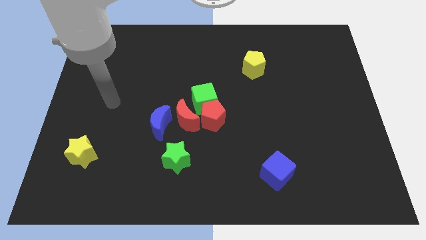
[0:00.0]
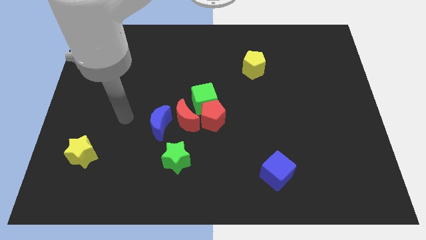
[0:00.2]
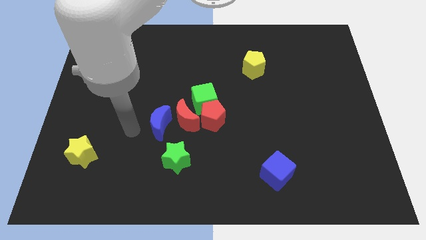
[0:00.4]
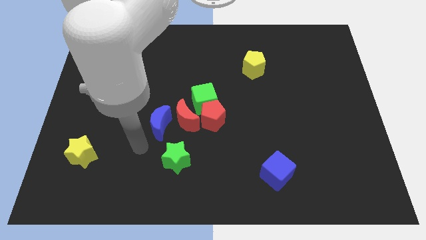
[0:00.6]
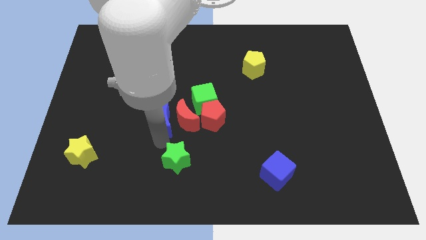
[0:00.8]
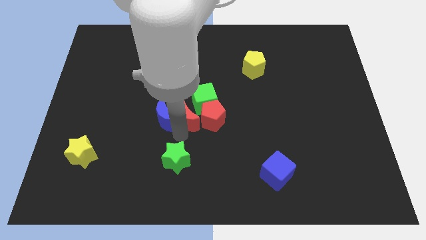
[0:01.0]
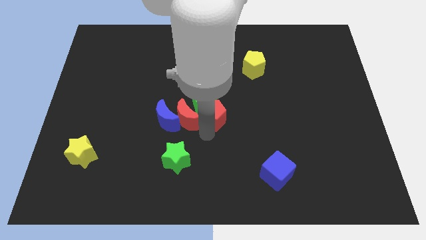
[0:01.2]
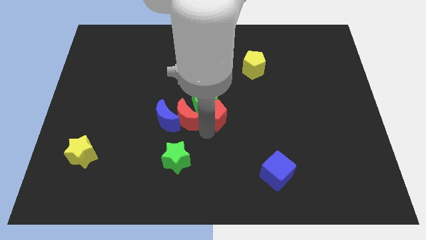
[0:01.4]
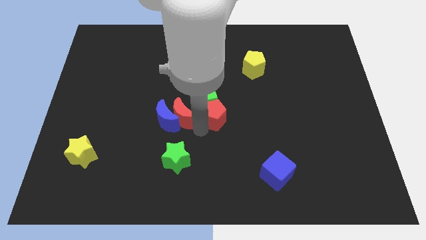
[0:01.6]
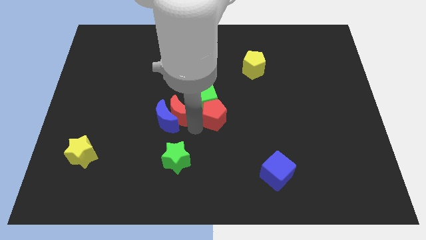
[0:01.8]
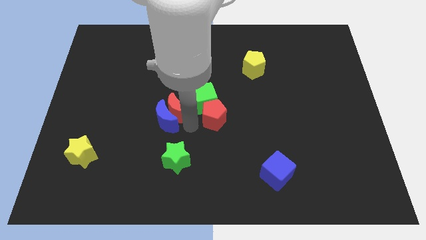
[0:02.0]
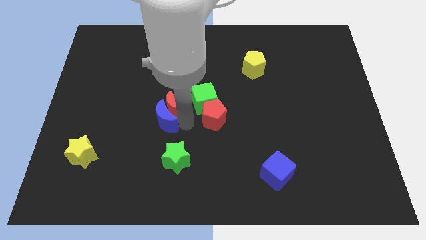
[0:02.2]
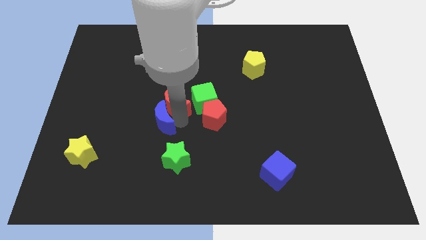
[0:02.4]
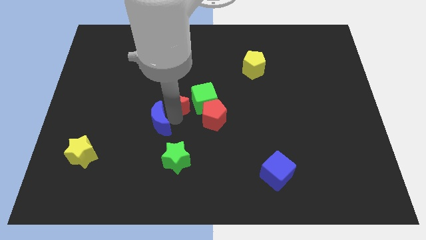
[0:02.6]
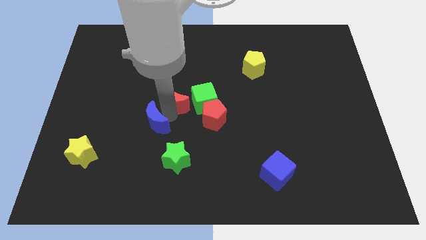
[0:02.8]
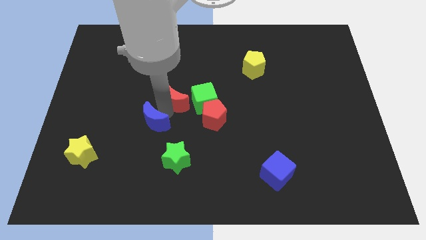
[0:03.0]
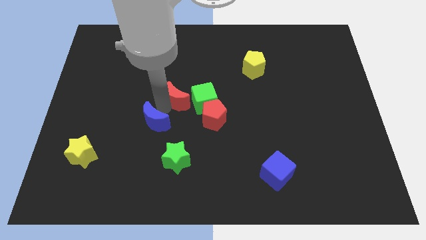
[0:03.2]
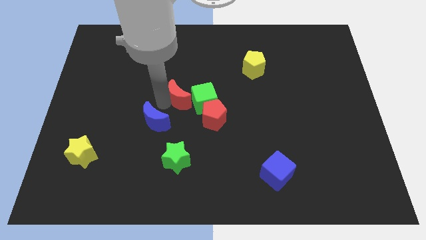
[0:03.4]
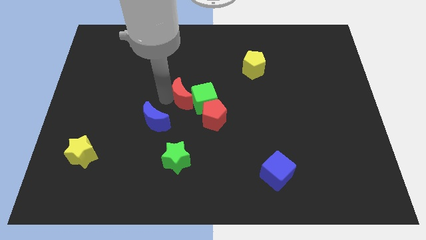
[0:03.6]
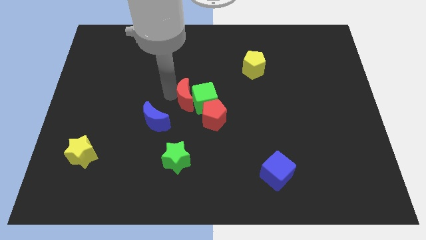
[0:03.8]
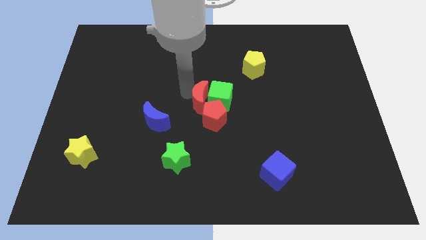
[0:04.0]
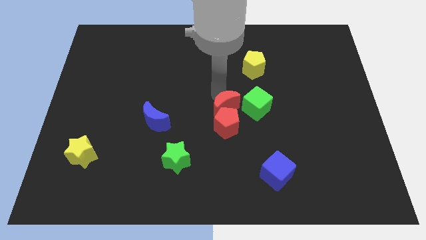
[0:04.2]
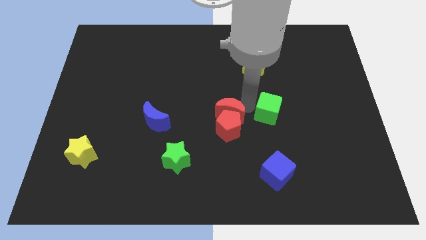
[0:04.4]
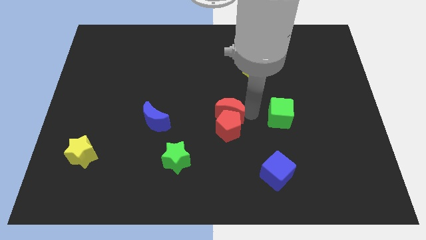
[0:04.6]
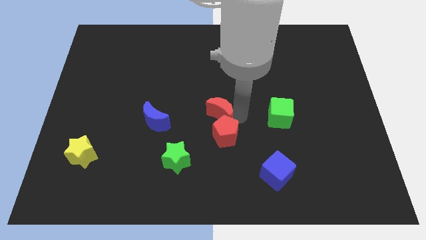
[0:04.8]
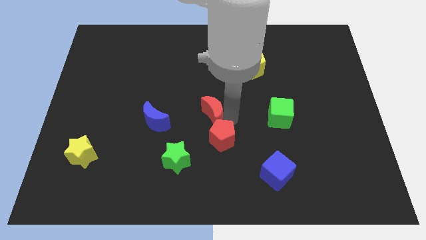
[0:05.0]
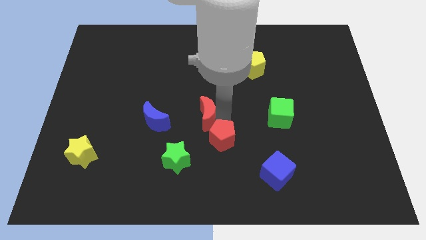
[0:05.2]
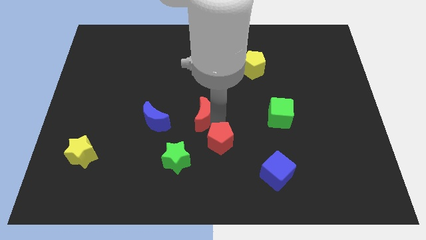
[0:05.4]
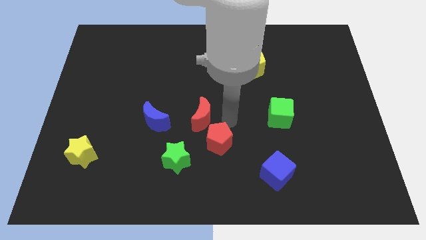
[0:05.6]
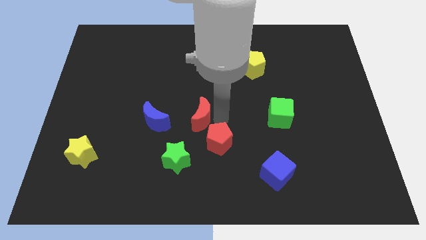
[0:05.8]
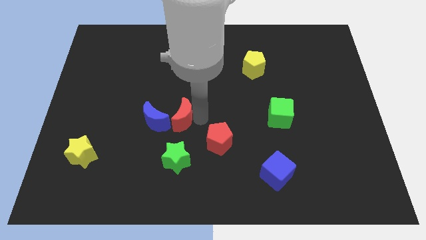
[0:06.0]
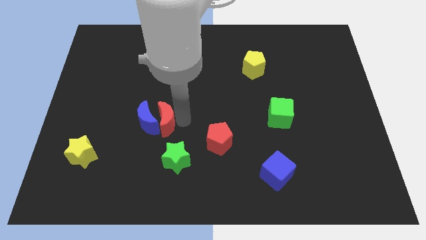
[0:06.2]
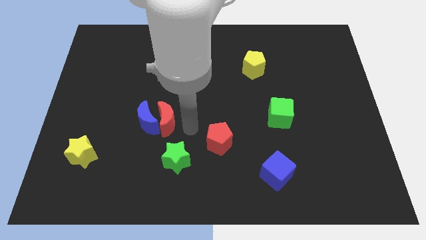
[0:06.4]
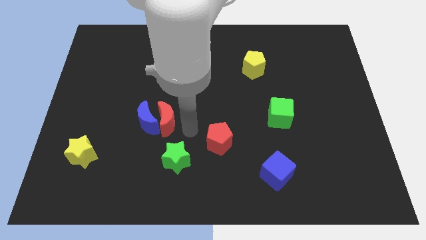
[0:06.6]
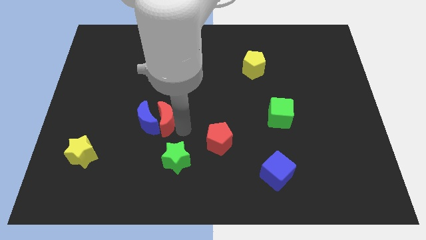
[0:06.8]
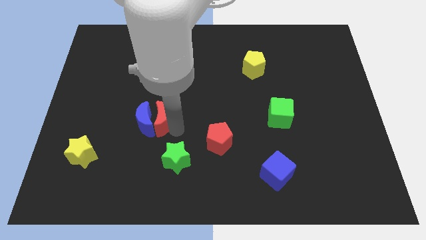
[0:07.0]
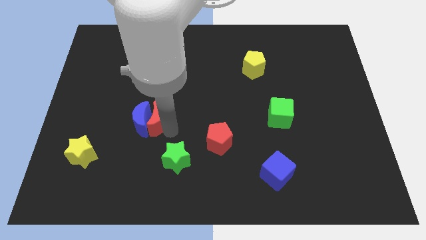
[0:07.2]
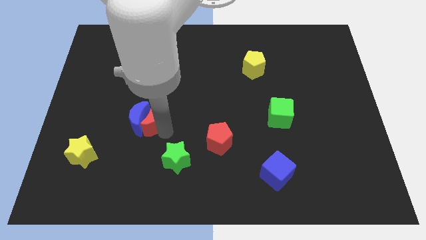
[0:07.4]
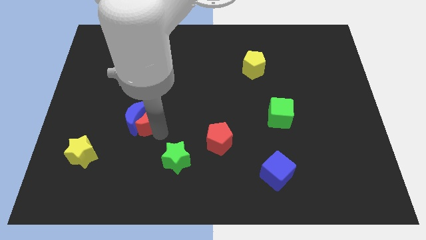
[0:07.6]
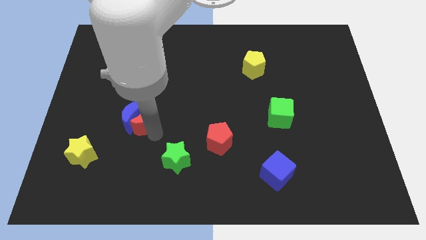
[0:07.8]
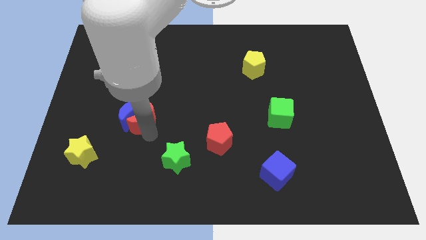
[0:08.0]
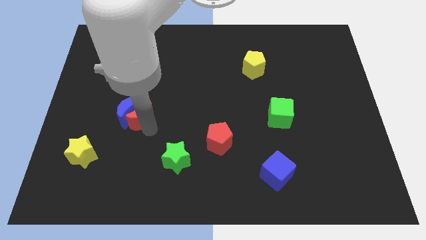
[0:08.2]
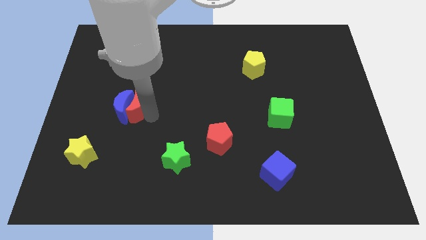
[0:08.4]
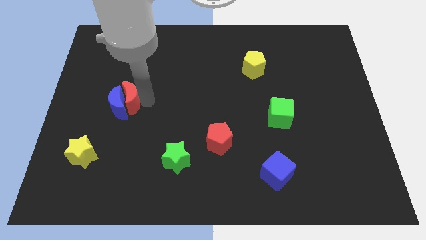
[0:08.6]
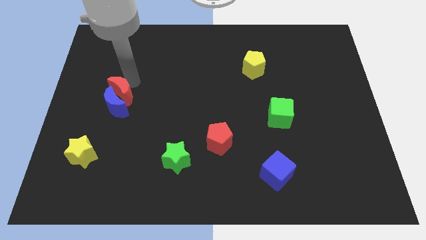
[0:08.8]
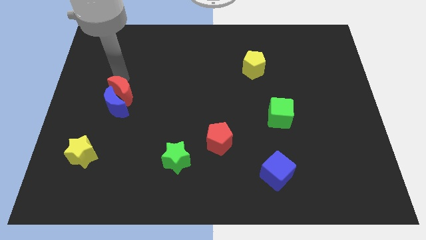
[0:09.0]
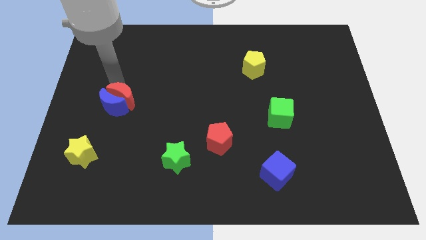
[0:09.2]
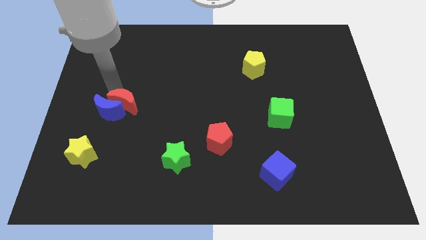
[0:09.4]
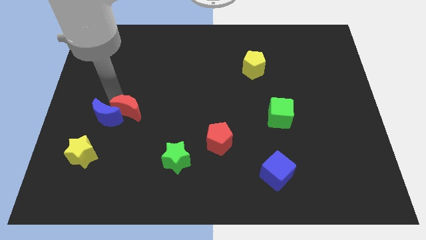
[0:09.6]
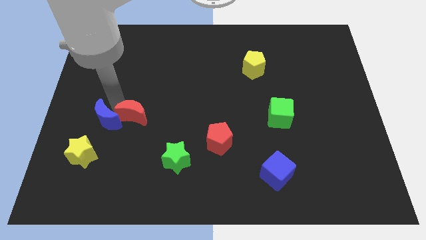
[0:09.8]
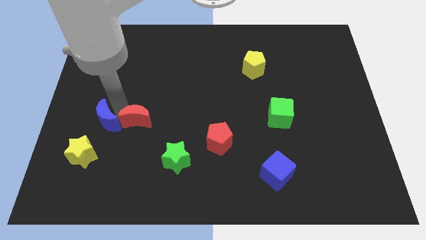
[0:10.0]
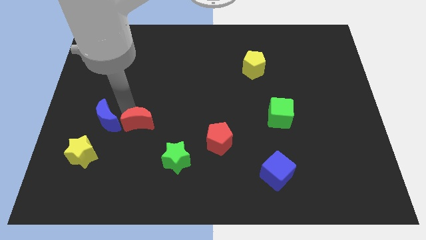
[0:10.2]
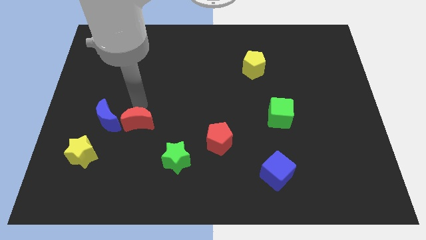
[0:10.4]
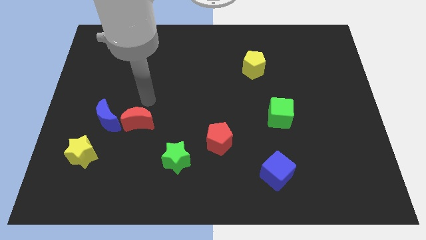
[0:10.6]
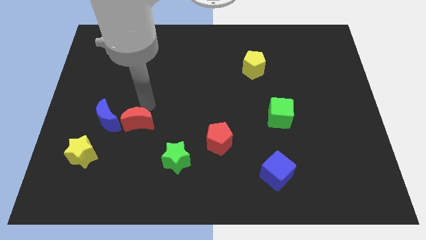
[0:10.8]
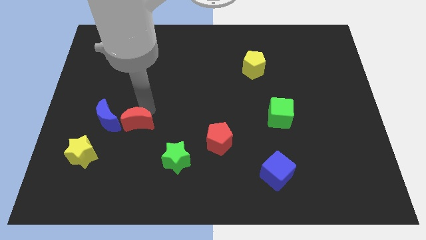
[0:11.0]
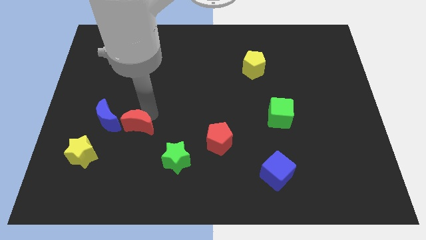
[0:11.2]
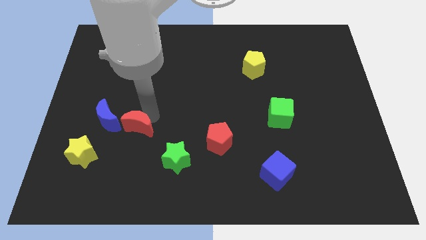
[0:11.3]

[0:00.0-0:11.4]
move the red moon slightly downwards and to the left

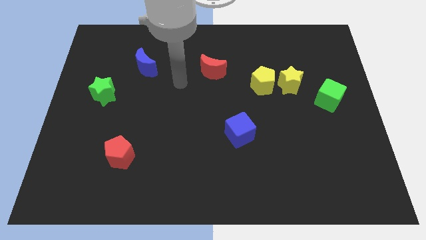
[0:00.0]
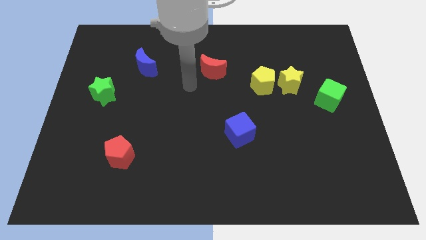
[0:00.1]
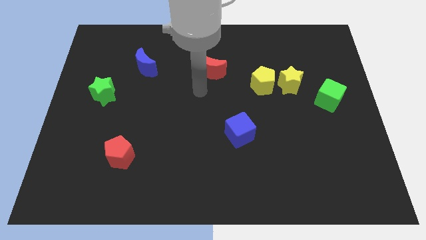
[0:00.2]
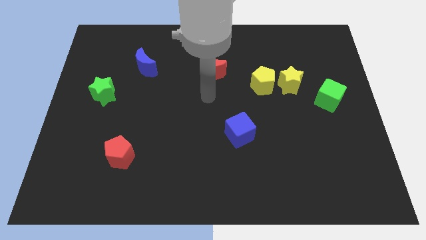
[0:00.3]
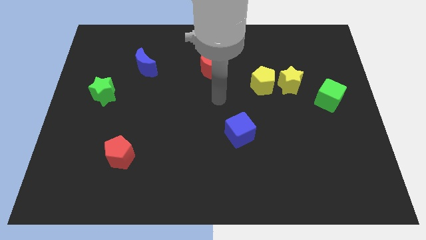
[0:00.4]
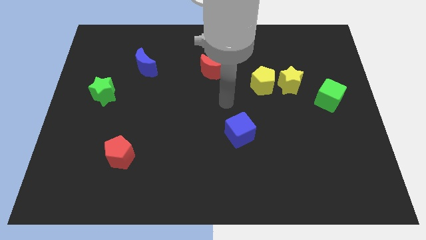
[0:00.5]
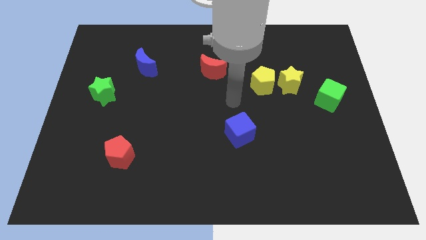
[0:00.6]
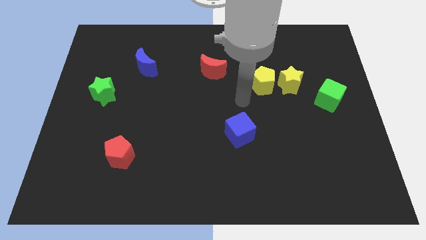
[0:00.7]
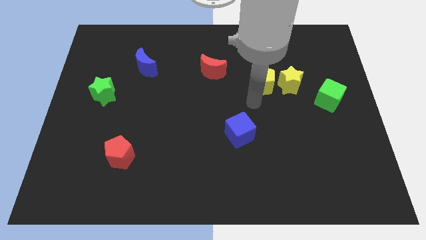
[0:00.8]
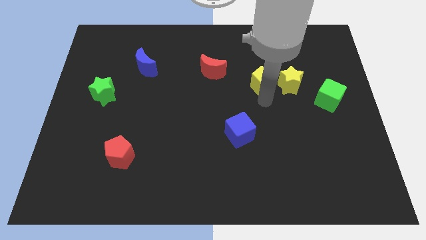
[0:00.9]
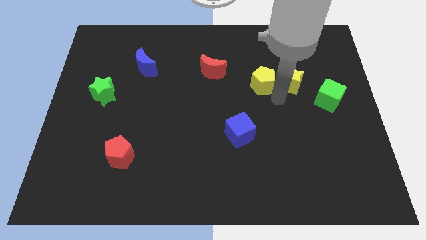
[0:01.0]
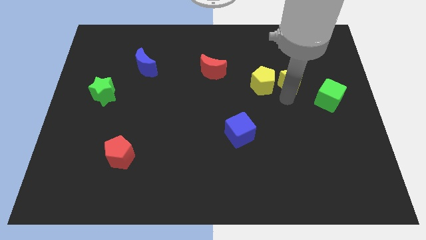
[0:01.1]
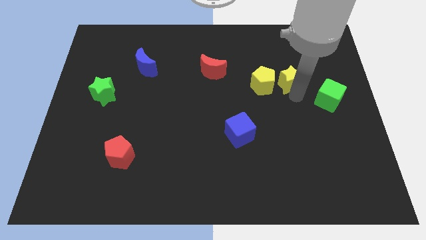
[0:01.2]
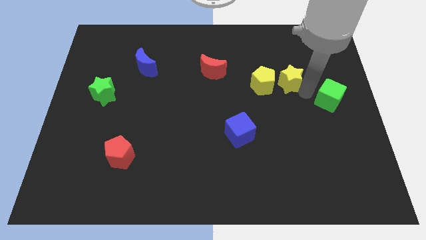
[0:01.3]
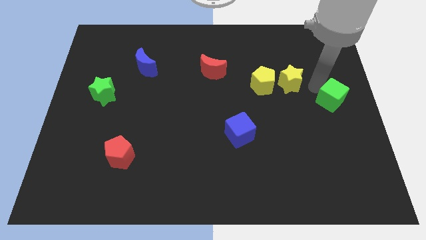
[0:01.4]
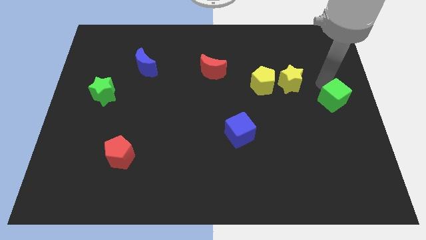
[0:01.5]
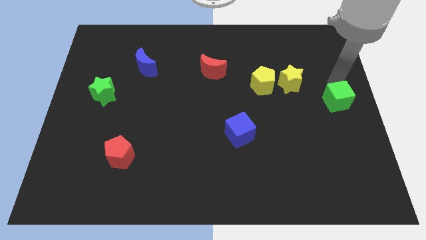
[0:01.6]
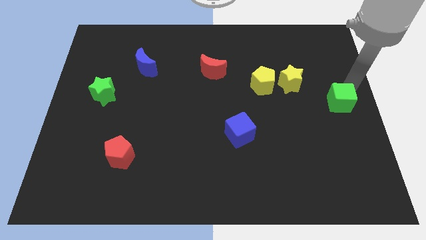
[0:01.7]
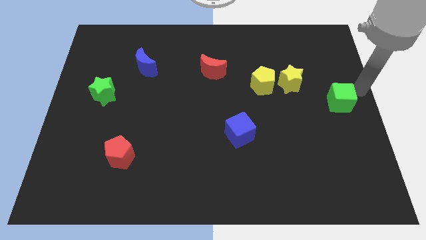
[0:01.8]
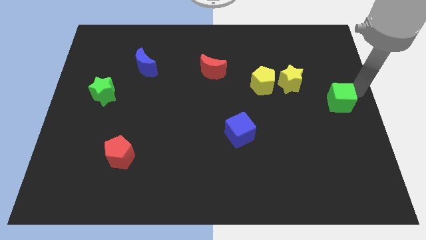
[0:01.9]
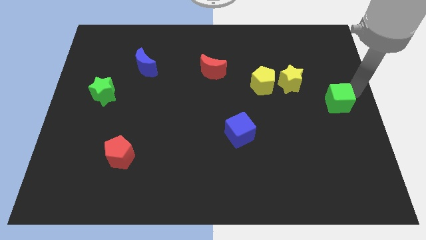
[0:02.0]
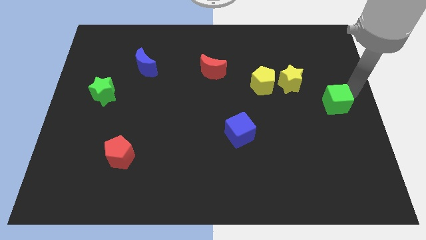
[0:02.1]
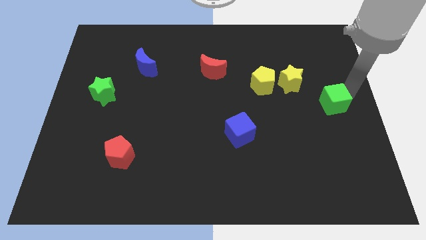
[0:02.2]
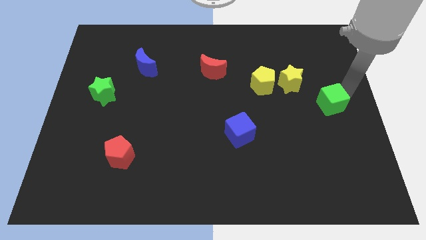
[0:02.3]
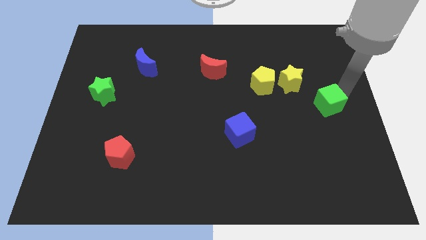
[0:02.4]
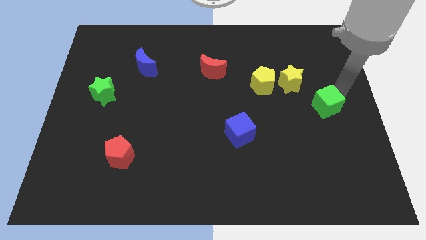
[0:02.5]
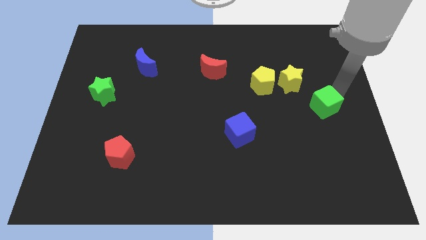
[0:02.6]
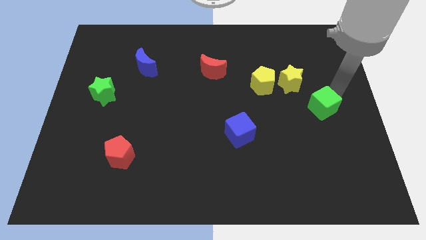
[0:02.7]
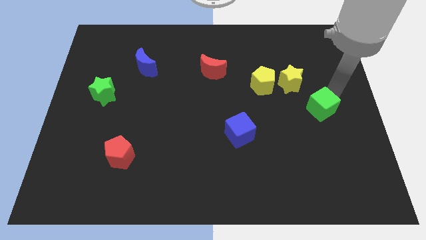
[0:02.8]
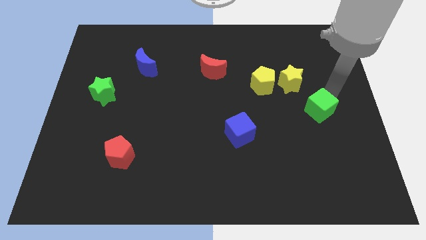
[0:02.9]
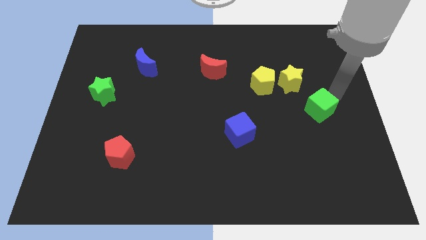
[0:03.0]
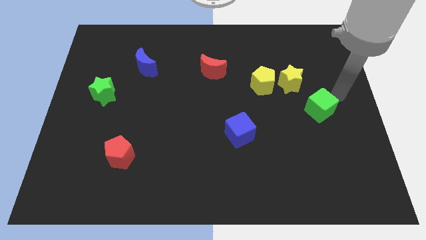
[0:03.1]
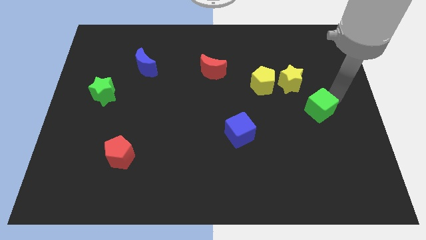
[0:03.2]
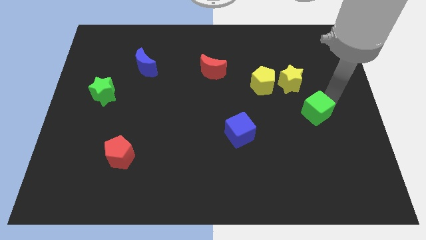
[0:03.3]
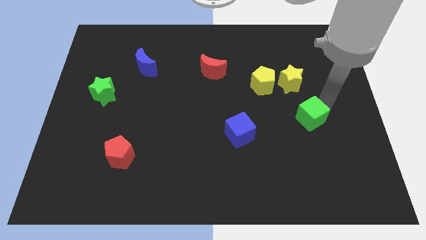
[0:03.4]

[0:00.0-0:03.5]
slightly push the green cube diagonally down and left
